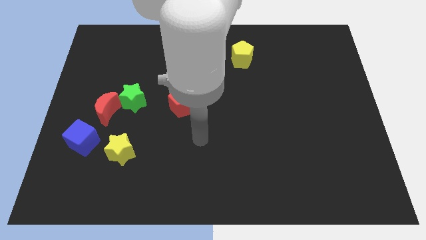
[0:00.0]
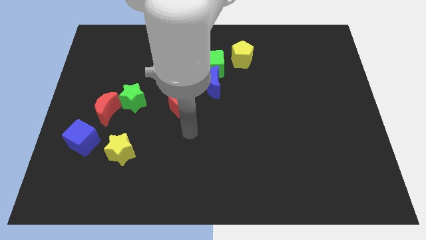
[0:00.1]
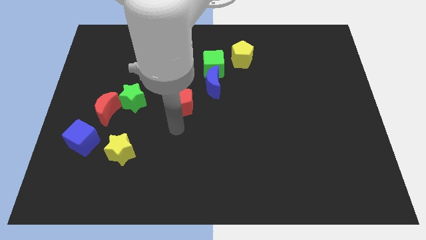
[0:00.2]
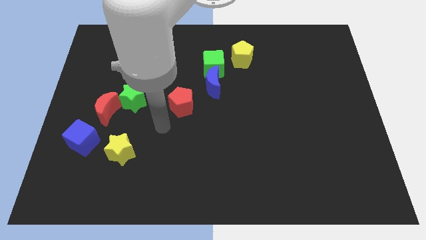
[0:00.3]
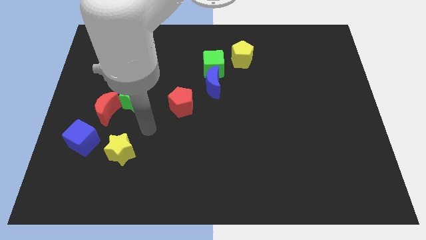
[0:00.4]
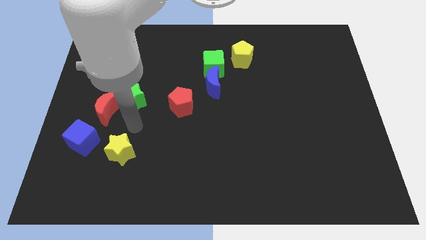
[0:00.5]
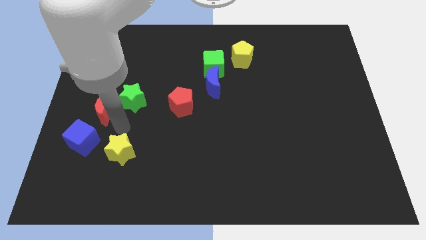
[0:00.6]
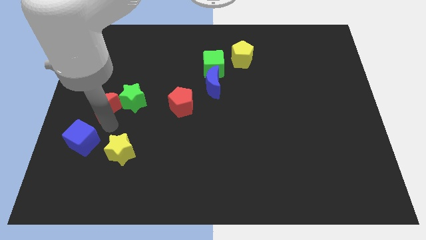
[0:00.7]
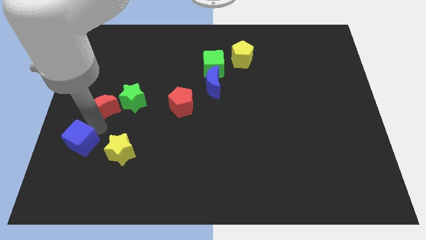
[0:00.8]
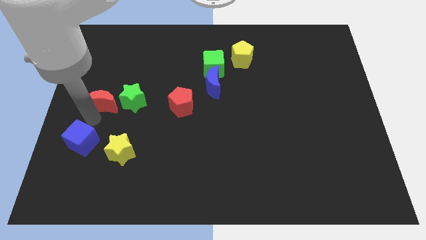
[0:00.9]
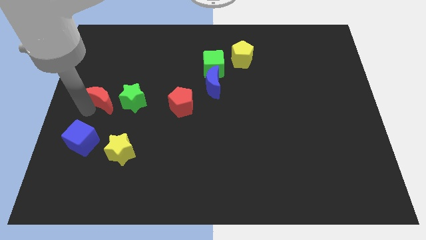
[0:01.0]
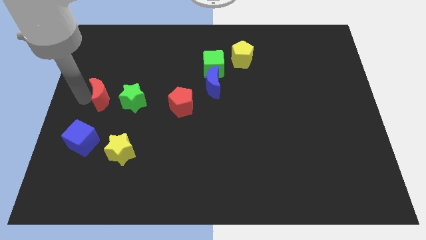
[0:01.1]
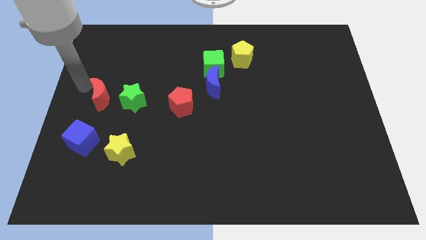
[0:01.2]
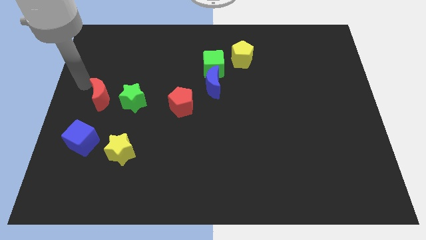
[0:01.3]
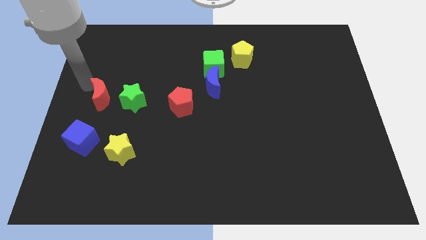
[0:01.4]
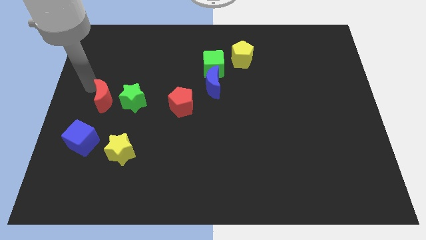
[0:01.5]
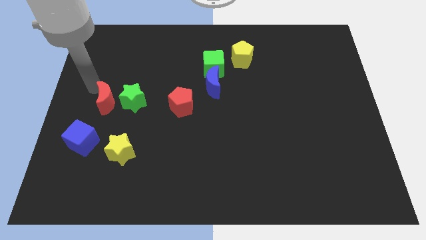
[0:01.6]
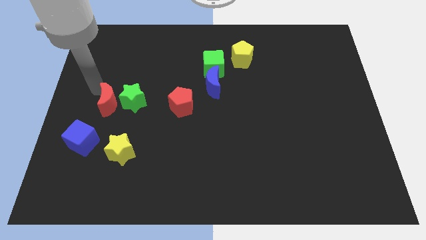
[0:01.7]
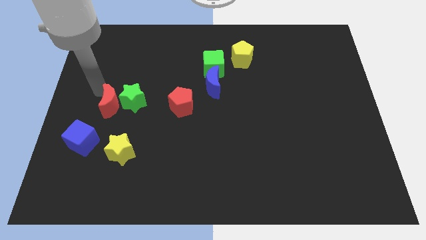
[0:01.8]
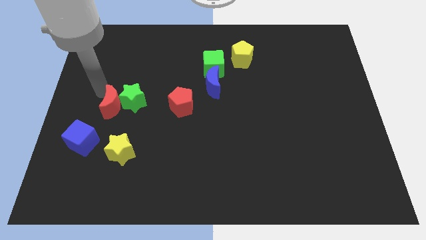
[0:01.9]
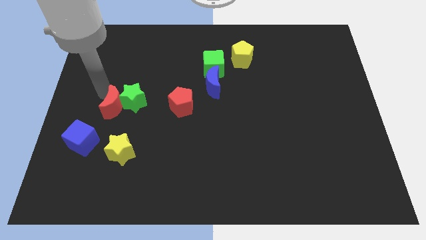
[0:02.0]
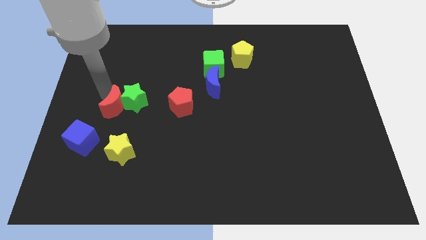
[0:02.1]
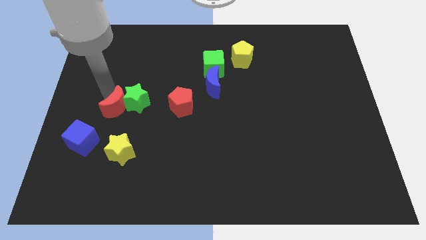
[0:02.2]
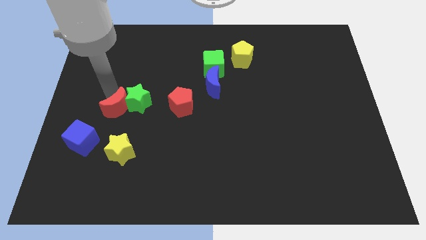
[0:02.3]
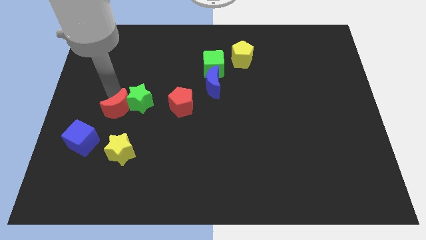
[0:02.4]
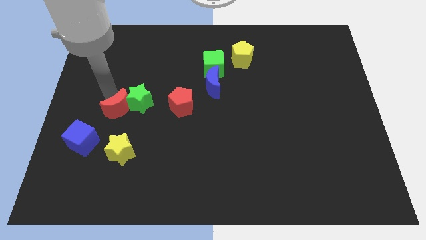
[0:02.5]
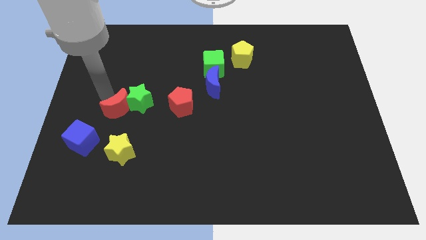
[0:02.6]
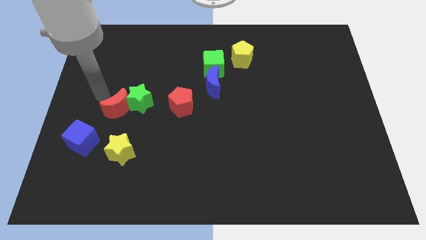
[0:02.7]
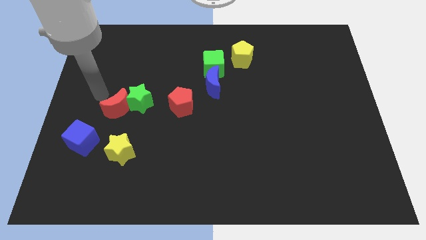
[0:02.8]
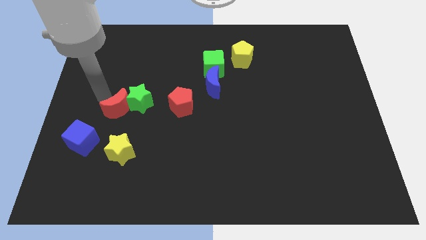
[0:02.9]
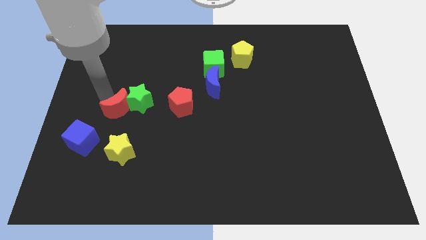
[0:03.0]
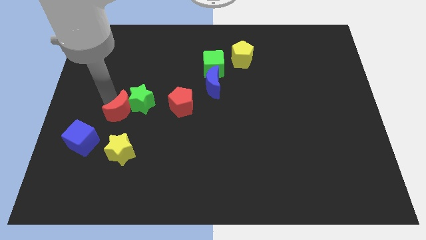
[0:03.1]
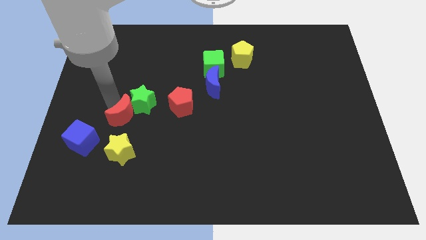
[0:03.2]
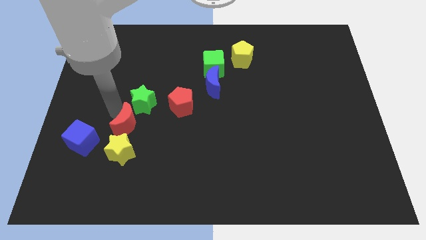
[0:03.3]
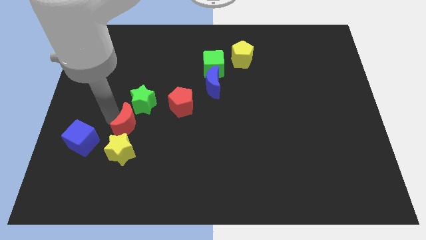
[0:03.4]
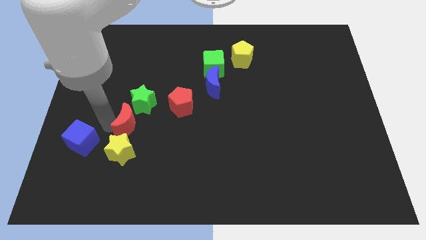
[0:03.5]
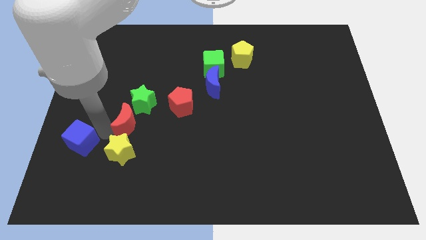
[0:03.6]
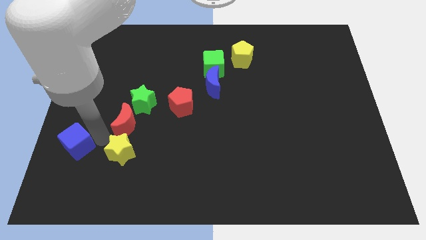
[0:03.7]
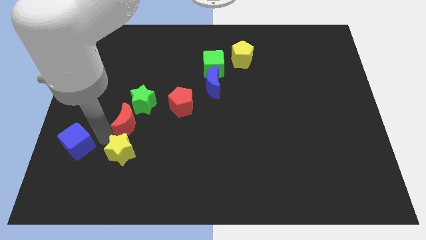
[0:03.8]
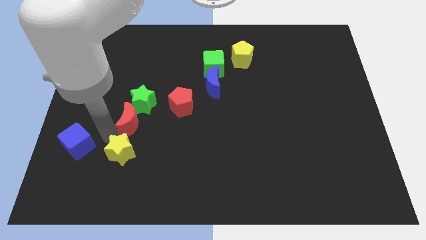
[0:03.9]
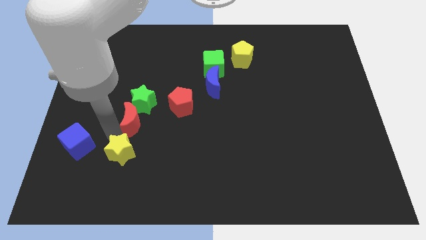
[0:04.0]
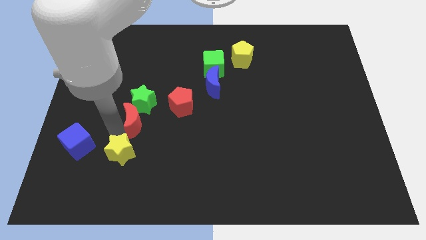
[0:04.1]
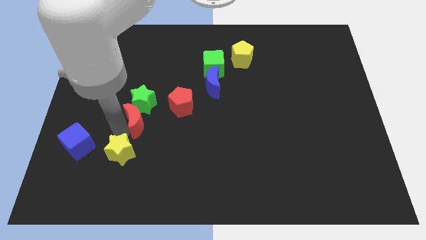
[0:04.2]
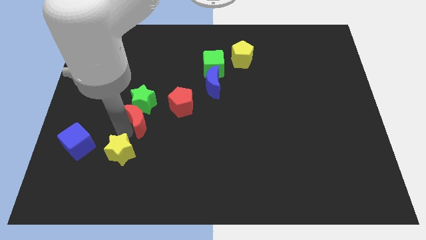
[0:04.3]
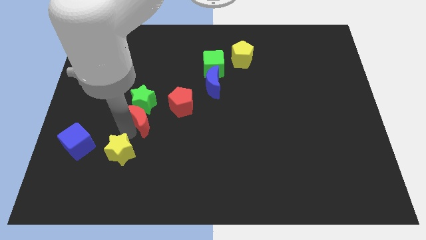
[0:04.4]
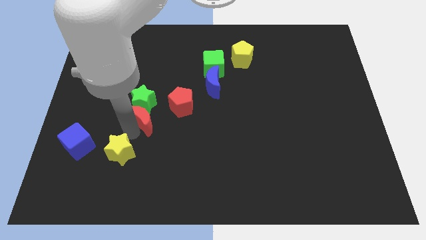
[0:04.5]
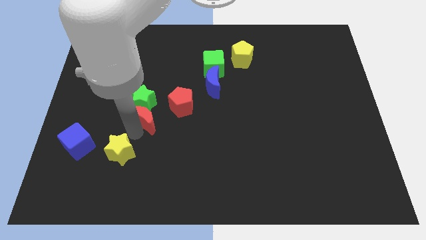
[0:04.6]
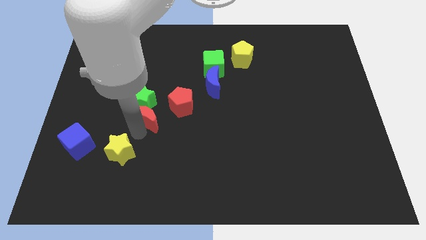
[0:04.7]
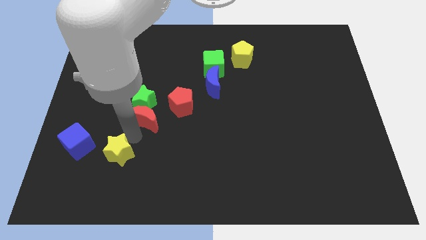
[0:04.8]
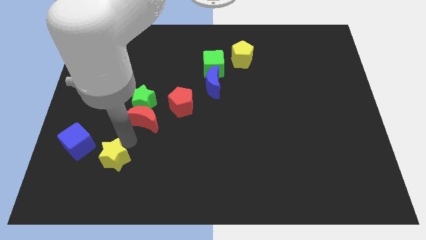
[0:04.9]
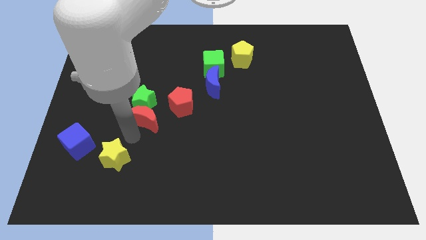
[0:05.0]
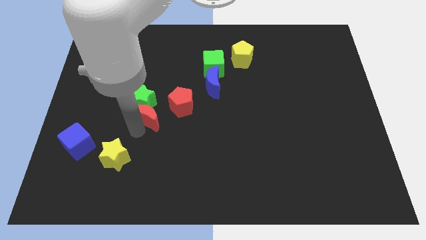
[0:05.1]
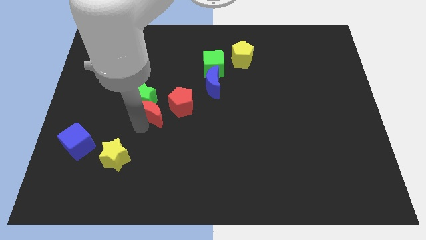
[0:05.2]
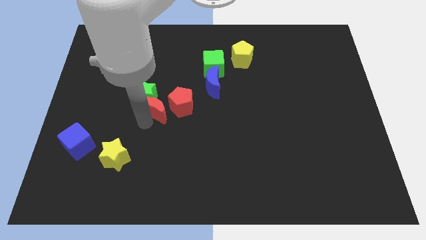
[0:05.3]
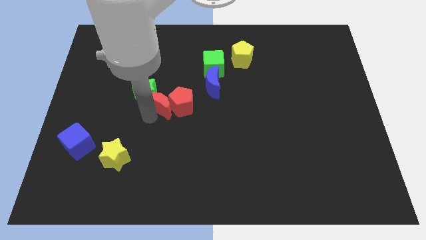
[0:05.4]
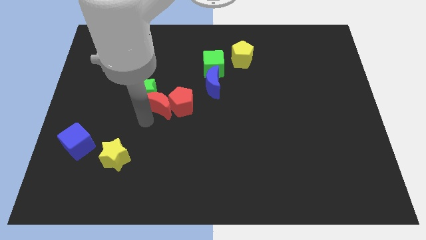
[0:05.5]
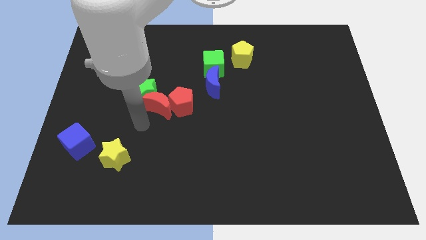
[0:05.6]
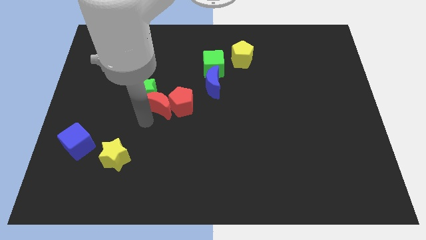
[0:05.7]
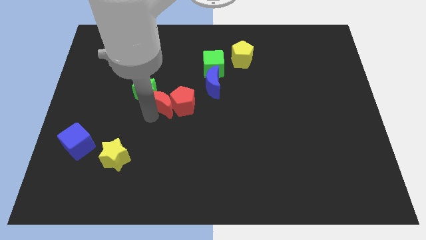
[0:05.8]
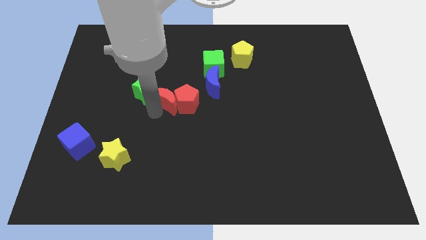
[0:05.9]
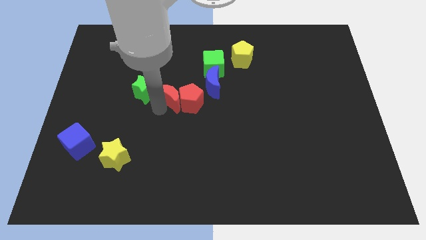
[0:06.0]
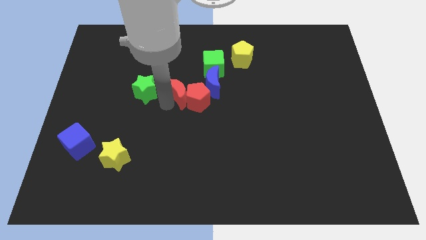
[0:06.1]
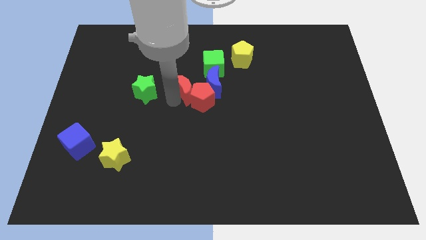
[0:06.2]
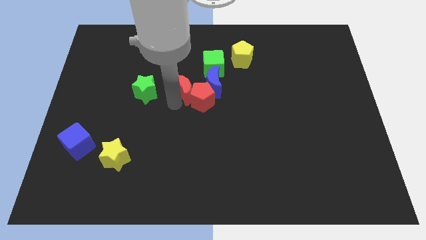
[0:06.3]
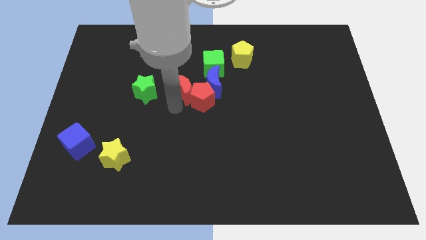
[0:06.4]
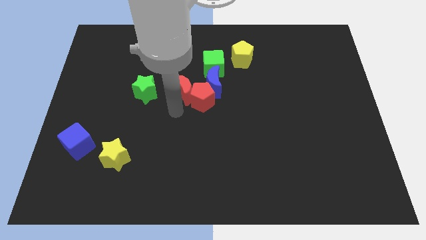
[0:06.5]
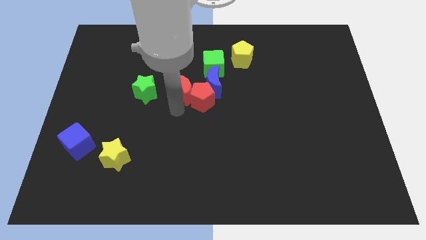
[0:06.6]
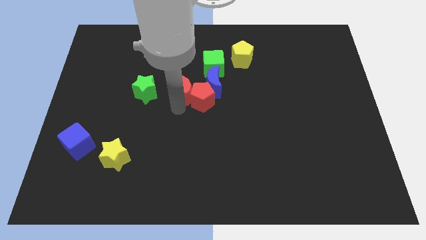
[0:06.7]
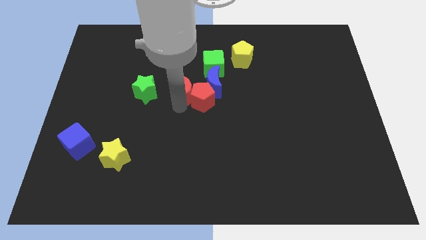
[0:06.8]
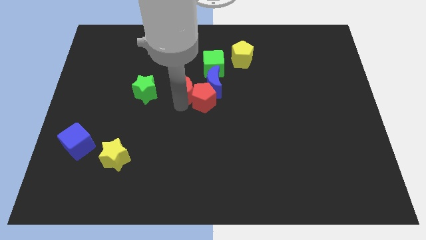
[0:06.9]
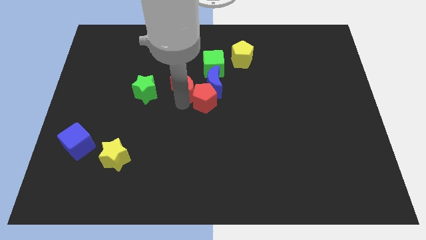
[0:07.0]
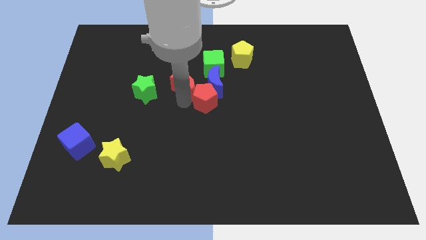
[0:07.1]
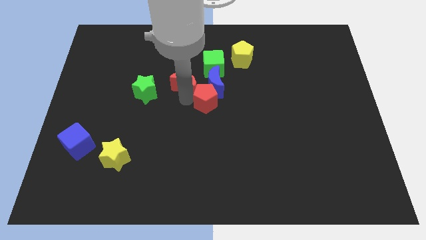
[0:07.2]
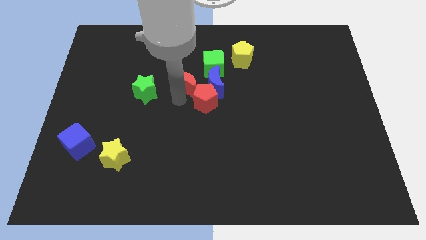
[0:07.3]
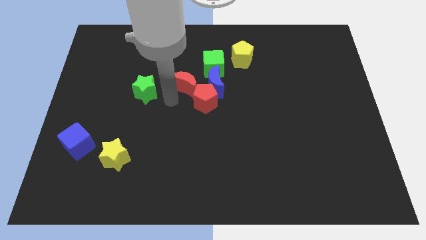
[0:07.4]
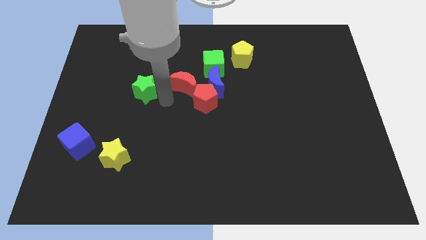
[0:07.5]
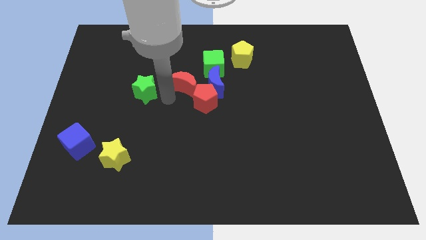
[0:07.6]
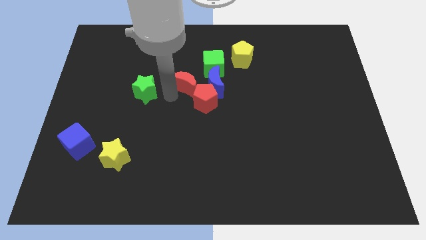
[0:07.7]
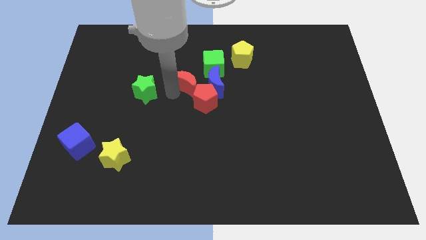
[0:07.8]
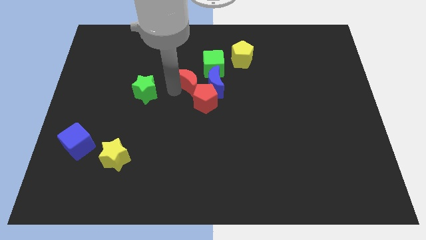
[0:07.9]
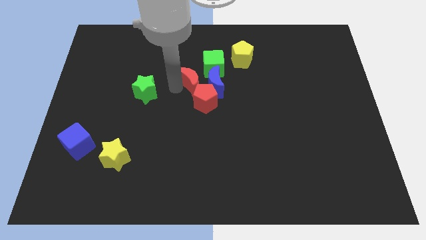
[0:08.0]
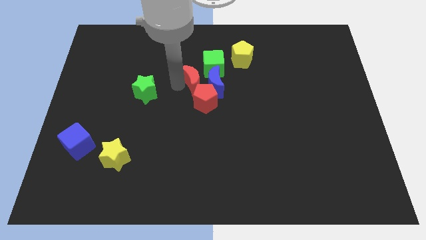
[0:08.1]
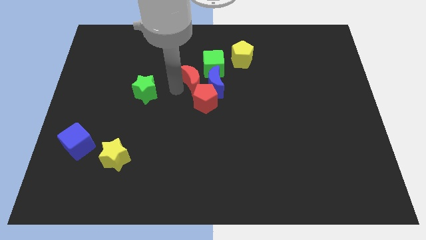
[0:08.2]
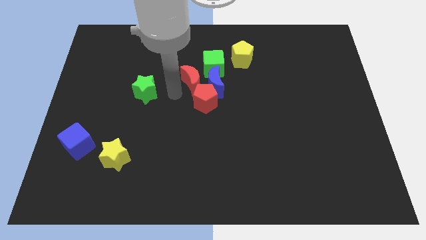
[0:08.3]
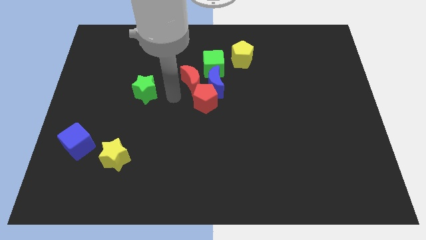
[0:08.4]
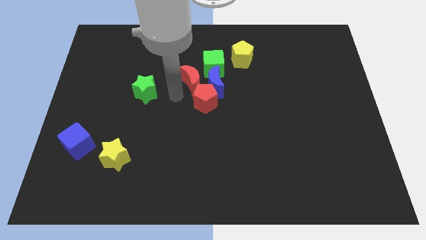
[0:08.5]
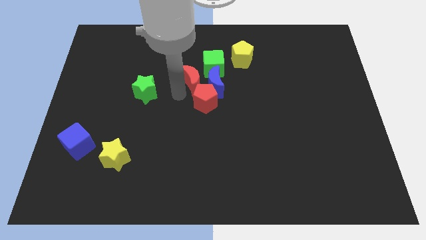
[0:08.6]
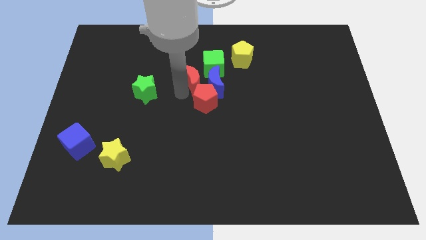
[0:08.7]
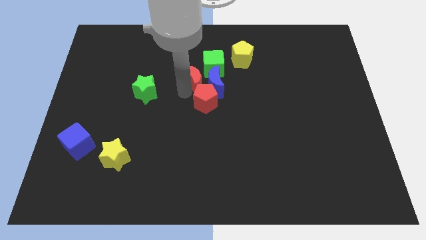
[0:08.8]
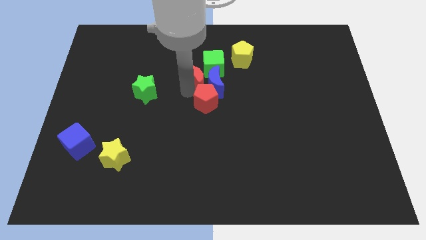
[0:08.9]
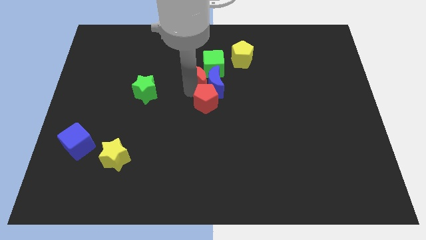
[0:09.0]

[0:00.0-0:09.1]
put the red moon towards the green cube
